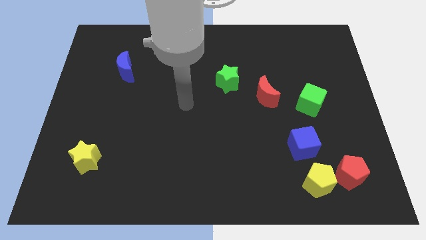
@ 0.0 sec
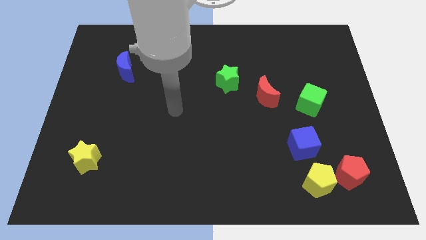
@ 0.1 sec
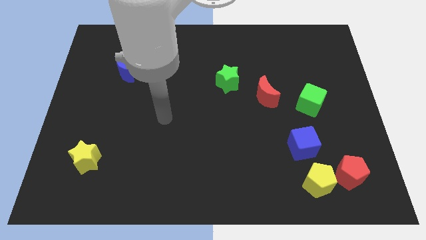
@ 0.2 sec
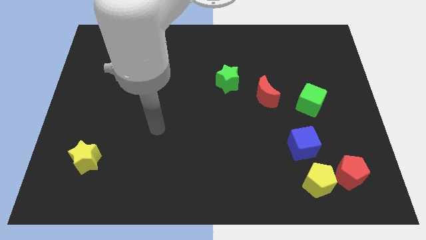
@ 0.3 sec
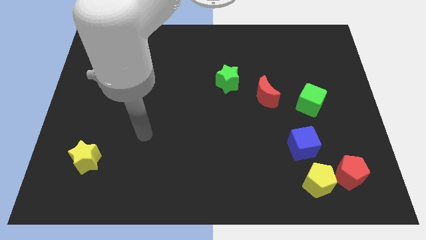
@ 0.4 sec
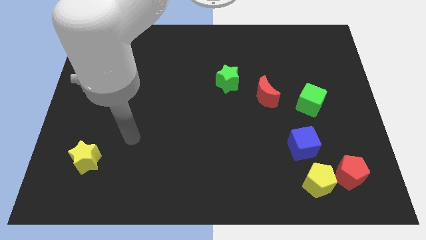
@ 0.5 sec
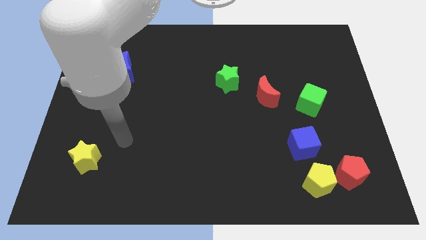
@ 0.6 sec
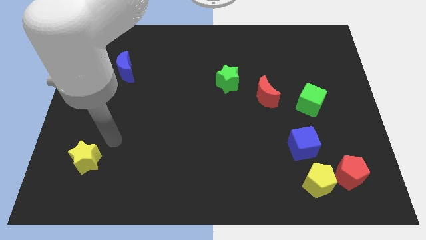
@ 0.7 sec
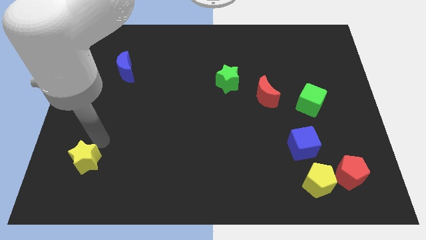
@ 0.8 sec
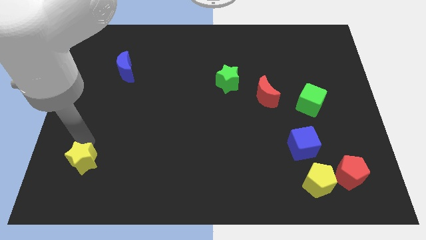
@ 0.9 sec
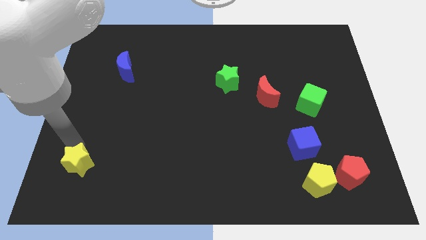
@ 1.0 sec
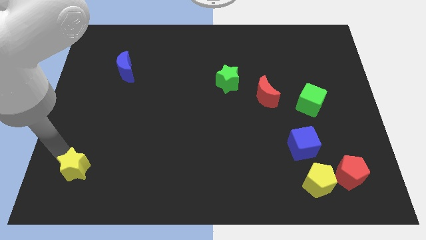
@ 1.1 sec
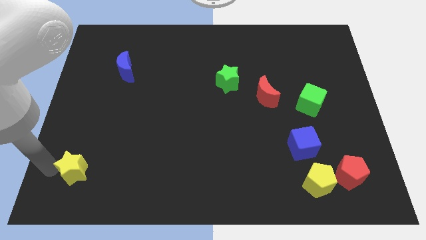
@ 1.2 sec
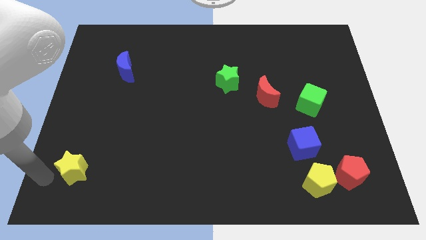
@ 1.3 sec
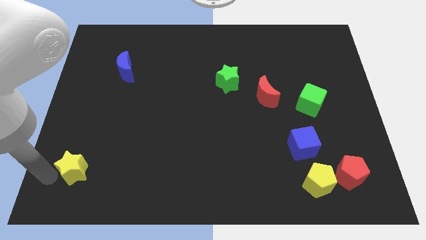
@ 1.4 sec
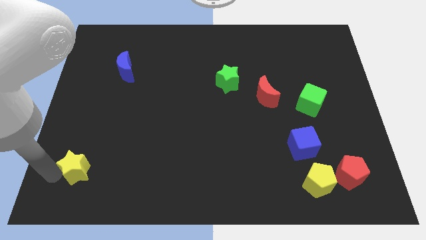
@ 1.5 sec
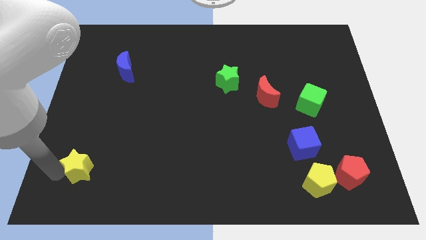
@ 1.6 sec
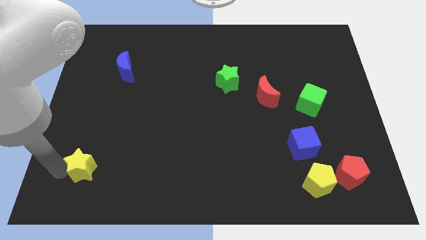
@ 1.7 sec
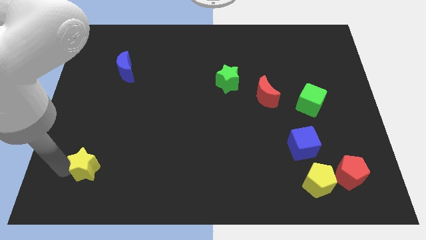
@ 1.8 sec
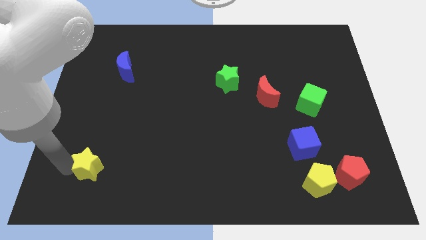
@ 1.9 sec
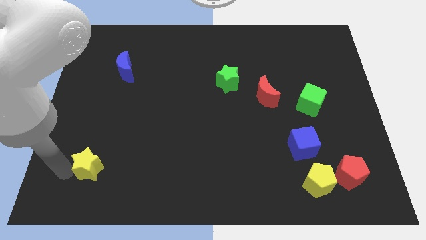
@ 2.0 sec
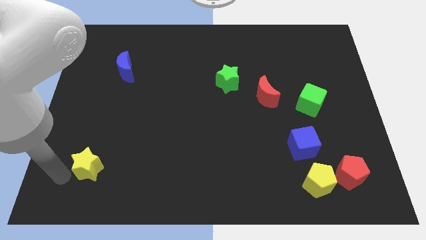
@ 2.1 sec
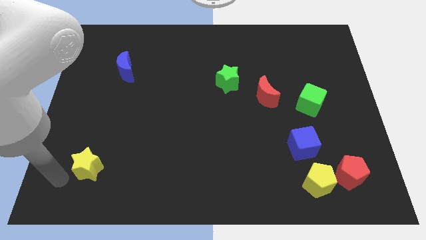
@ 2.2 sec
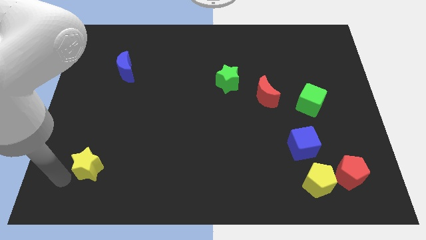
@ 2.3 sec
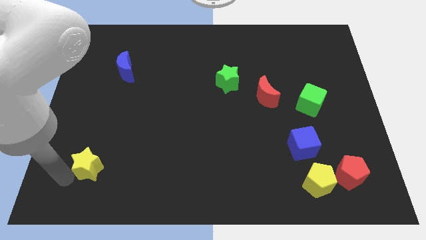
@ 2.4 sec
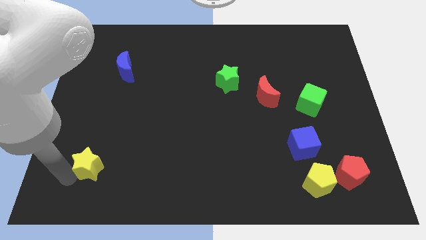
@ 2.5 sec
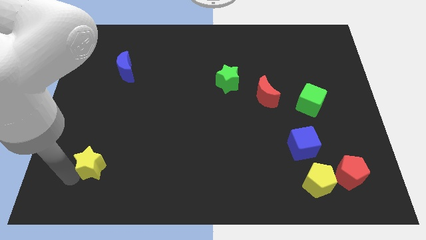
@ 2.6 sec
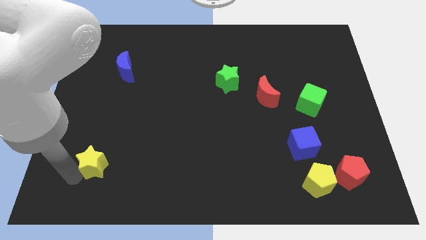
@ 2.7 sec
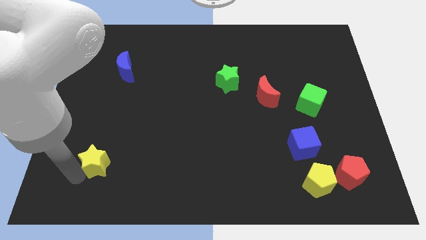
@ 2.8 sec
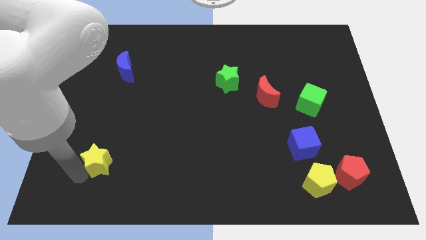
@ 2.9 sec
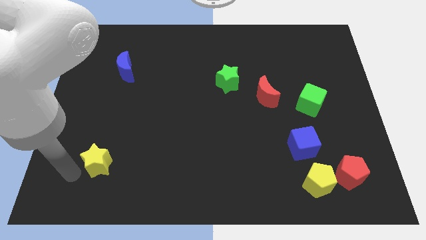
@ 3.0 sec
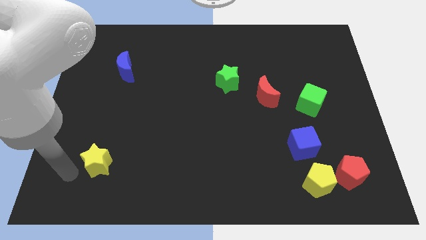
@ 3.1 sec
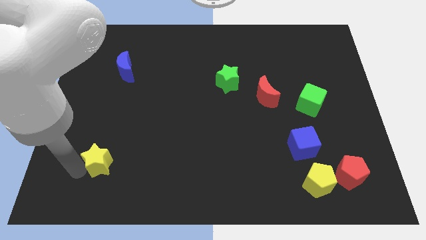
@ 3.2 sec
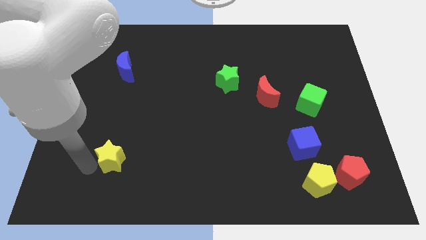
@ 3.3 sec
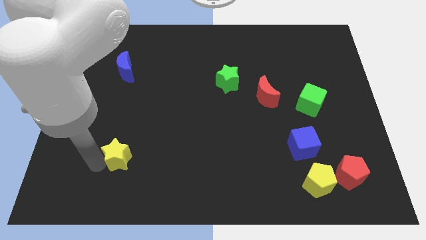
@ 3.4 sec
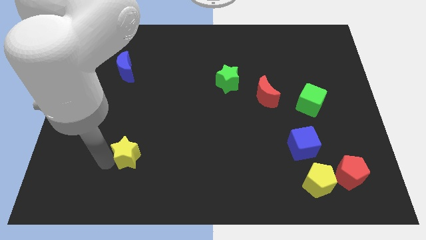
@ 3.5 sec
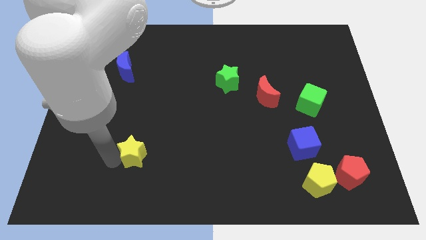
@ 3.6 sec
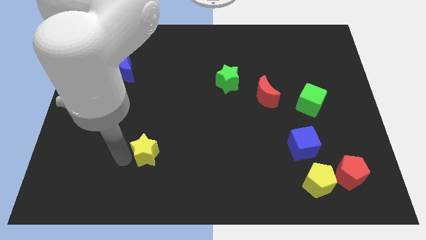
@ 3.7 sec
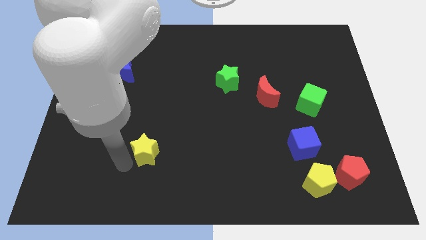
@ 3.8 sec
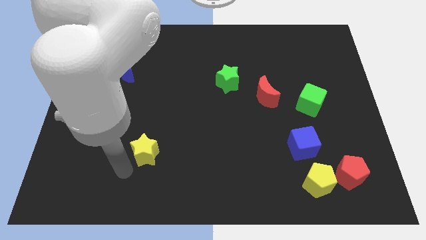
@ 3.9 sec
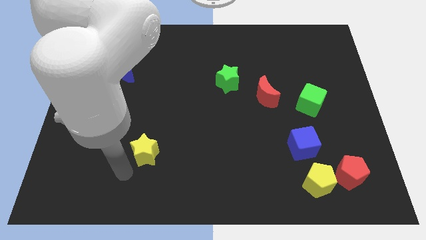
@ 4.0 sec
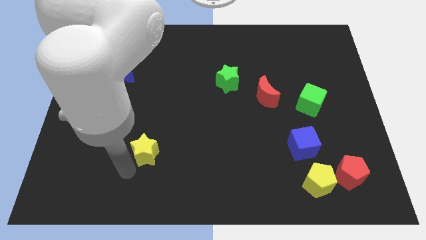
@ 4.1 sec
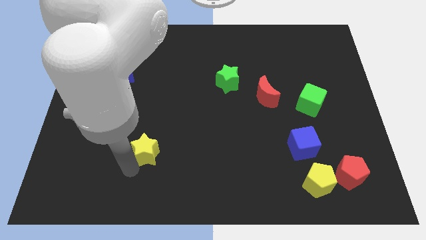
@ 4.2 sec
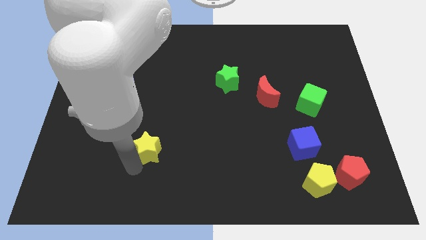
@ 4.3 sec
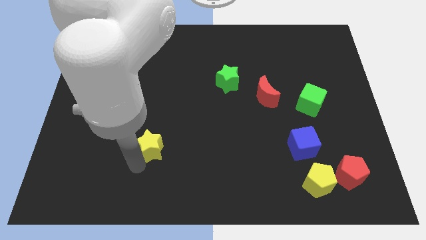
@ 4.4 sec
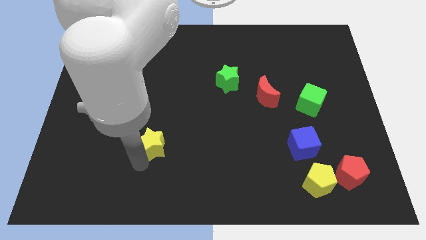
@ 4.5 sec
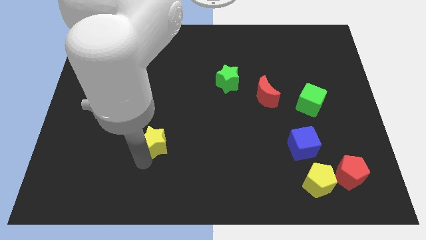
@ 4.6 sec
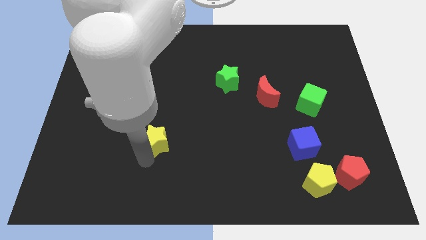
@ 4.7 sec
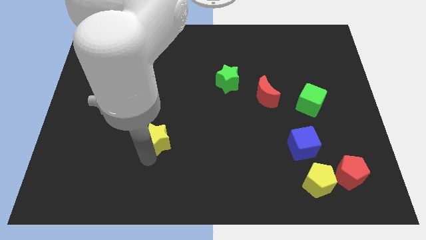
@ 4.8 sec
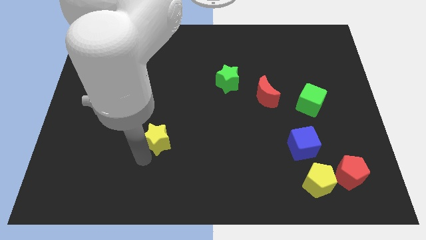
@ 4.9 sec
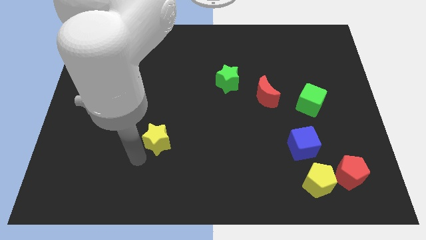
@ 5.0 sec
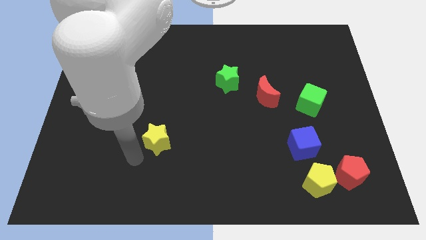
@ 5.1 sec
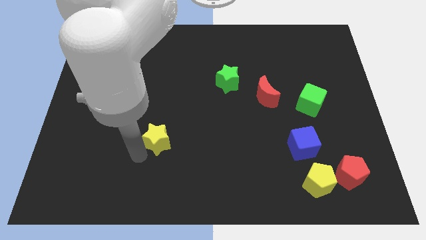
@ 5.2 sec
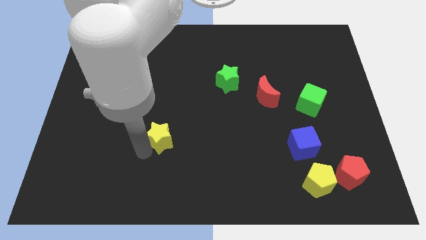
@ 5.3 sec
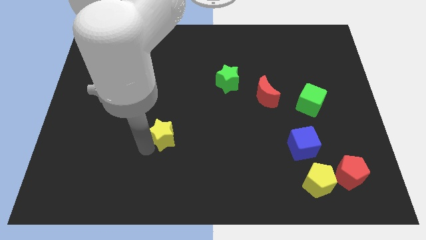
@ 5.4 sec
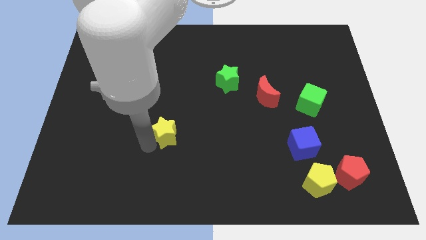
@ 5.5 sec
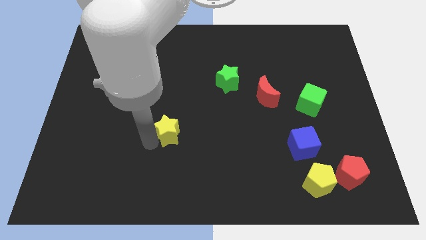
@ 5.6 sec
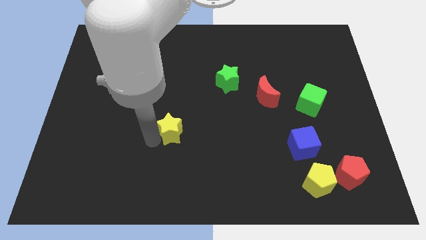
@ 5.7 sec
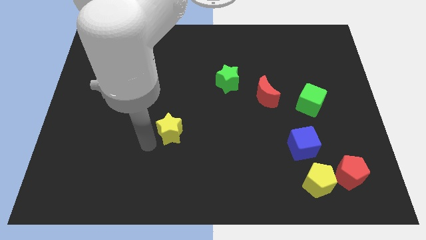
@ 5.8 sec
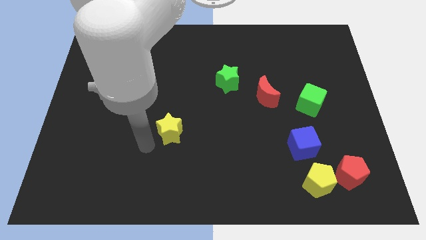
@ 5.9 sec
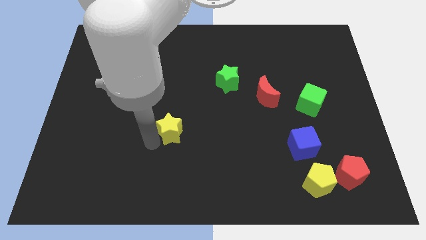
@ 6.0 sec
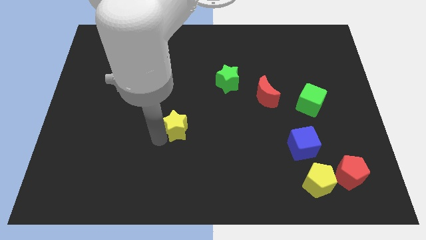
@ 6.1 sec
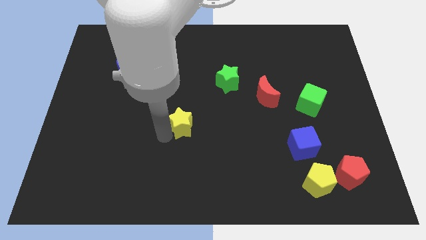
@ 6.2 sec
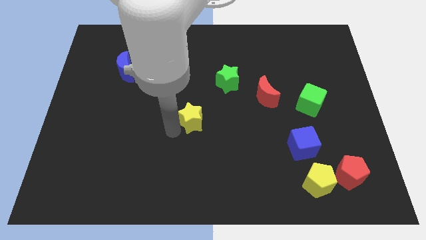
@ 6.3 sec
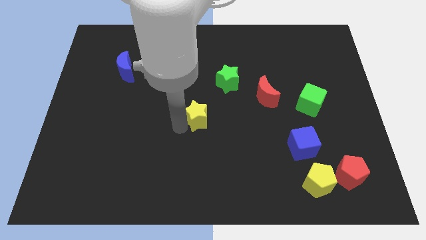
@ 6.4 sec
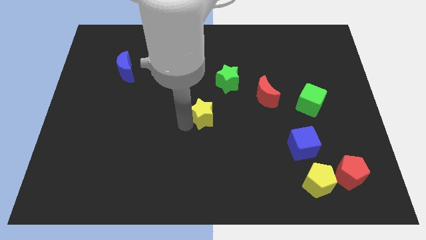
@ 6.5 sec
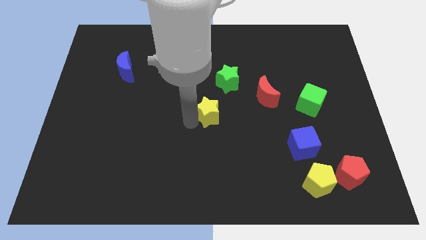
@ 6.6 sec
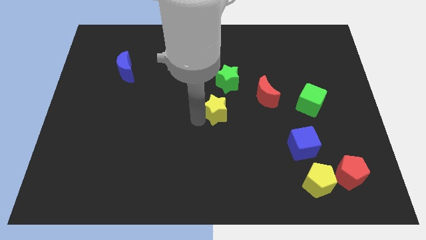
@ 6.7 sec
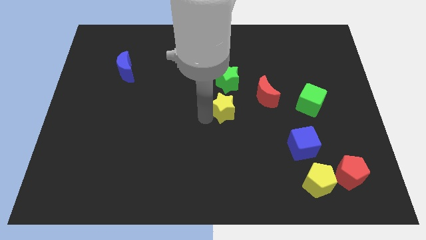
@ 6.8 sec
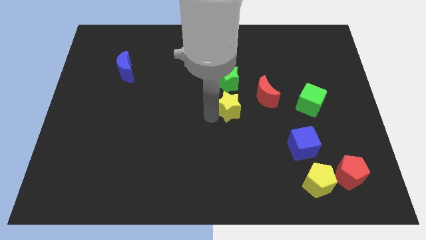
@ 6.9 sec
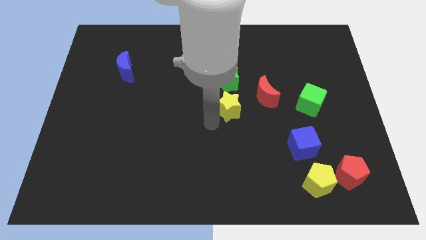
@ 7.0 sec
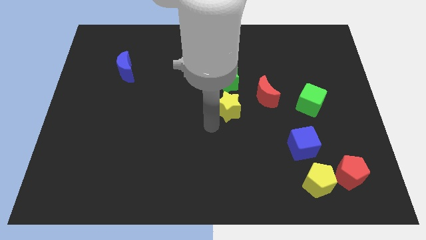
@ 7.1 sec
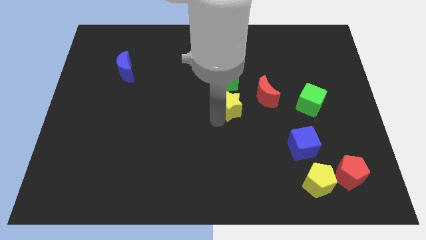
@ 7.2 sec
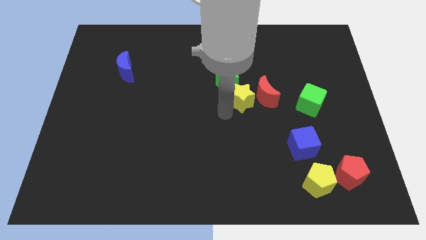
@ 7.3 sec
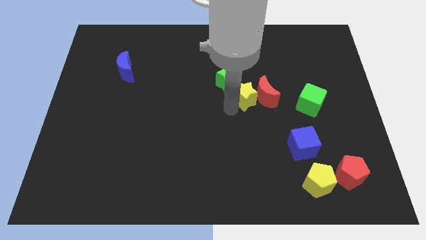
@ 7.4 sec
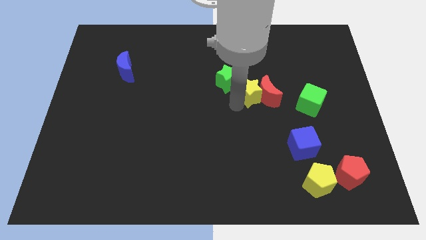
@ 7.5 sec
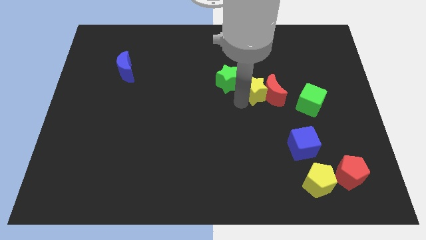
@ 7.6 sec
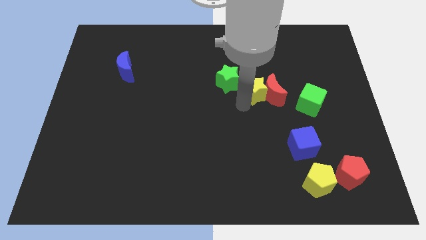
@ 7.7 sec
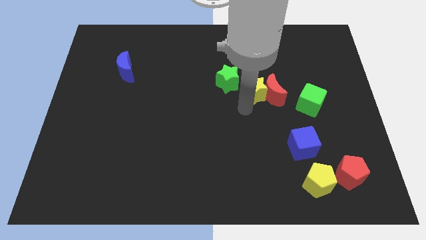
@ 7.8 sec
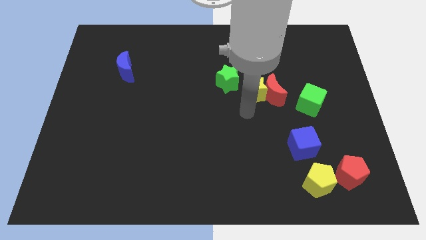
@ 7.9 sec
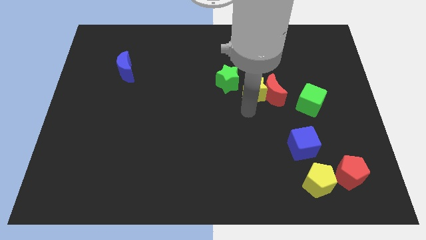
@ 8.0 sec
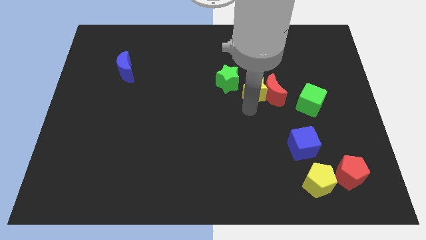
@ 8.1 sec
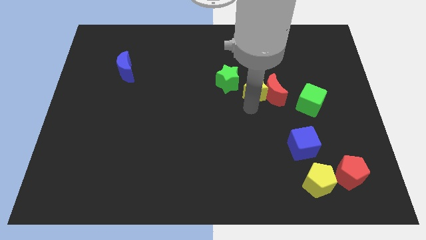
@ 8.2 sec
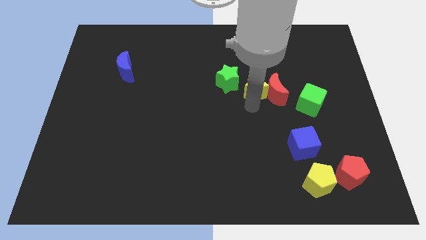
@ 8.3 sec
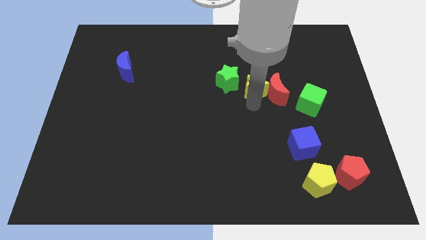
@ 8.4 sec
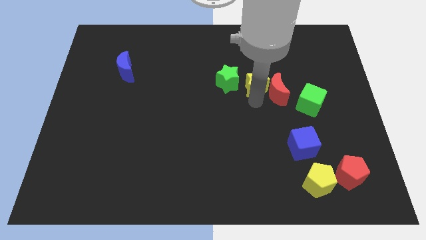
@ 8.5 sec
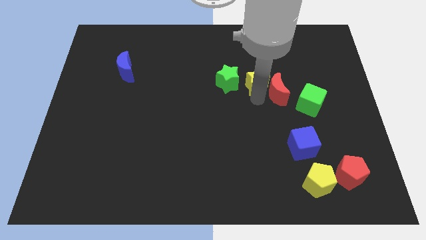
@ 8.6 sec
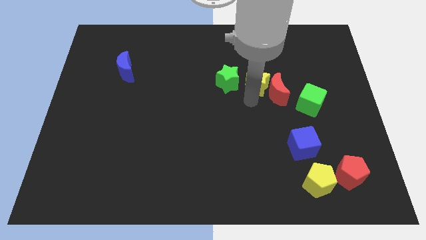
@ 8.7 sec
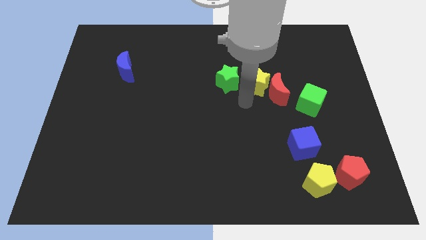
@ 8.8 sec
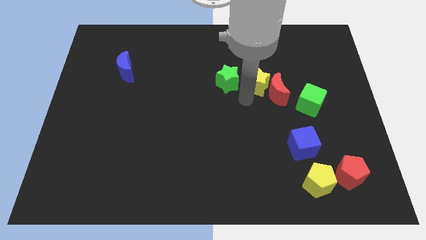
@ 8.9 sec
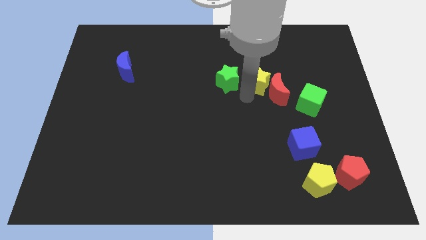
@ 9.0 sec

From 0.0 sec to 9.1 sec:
push the yellow star to the top of the red moon
